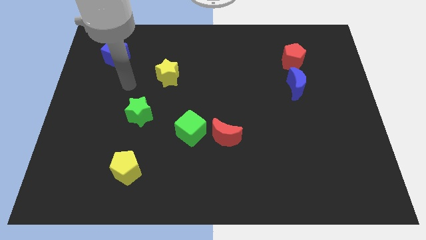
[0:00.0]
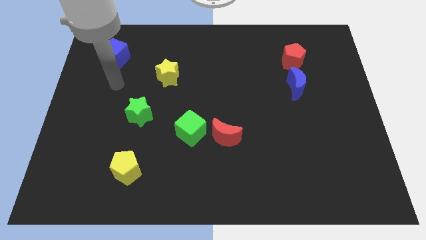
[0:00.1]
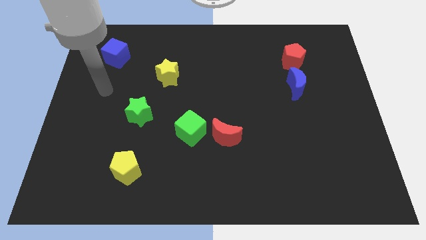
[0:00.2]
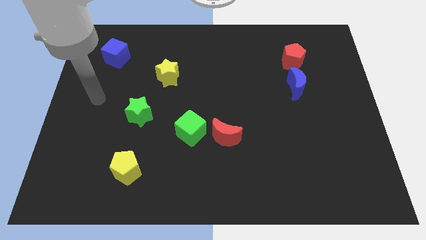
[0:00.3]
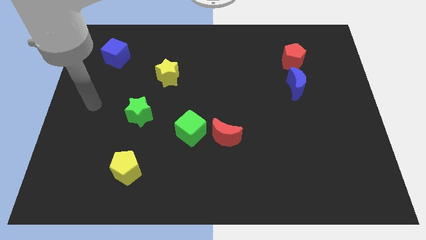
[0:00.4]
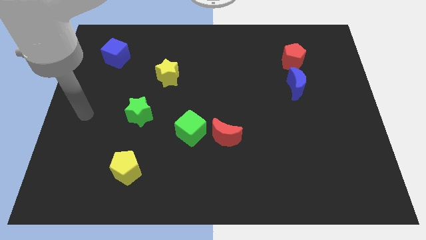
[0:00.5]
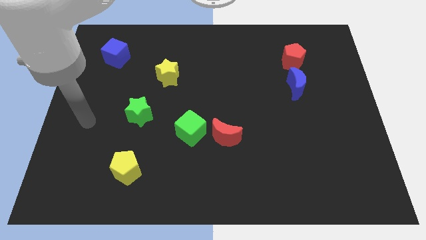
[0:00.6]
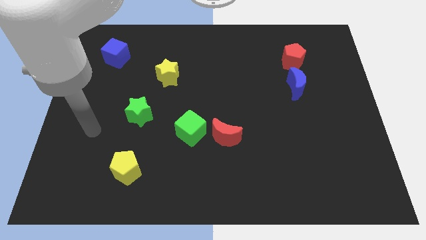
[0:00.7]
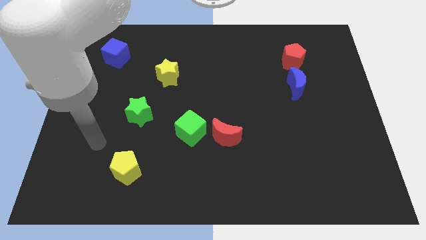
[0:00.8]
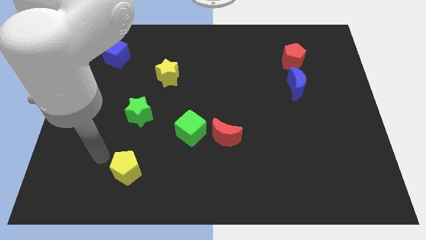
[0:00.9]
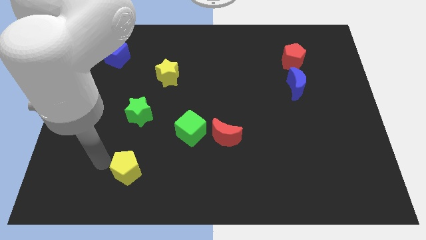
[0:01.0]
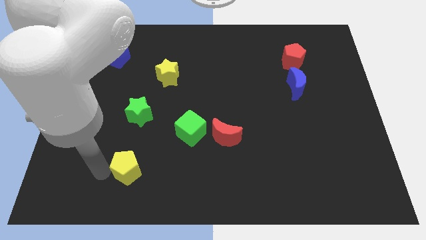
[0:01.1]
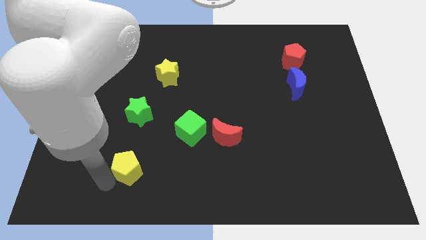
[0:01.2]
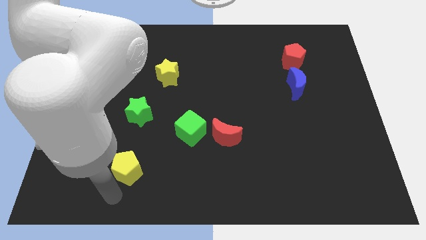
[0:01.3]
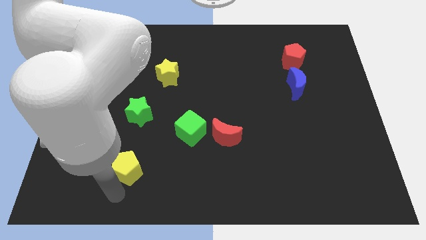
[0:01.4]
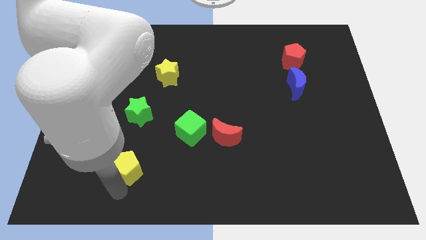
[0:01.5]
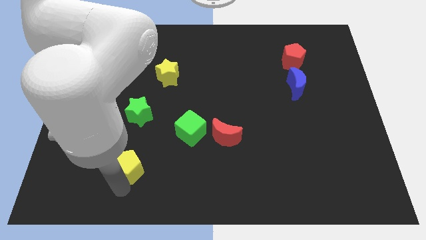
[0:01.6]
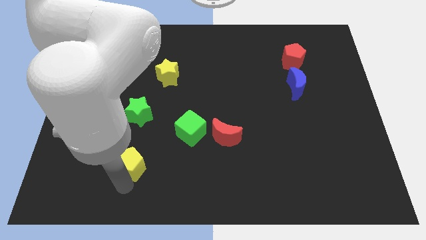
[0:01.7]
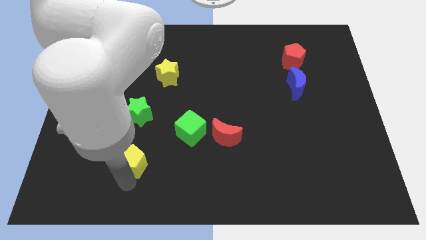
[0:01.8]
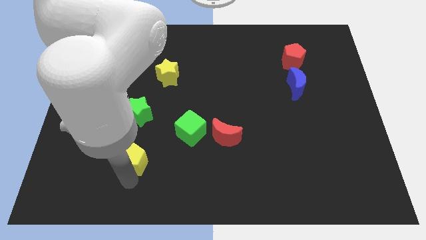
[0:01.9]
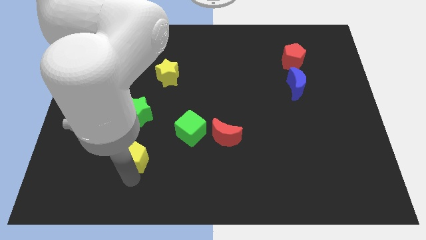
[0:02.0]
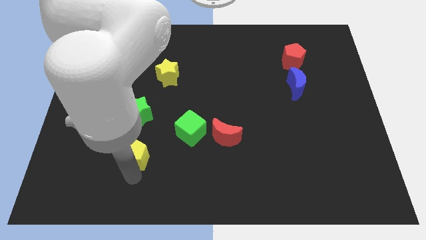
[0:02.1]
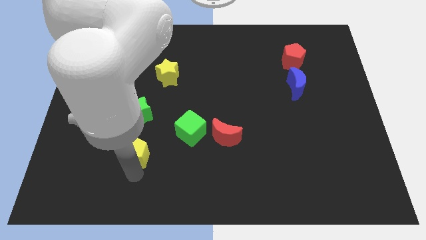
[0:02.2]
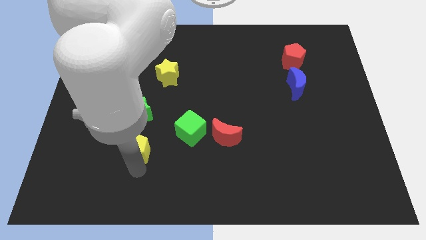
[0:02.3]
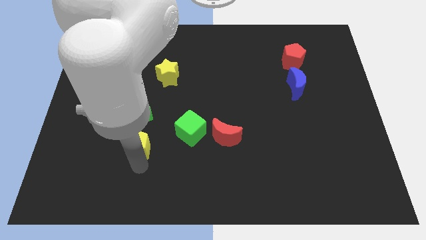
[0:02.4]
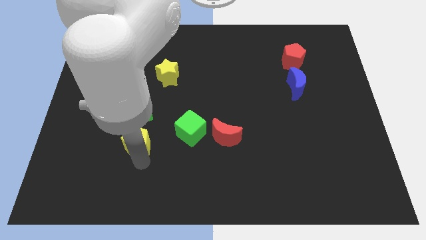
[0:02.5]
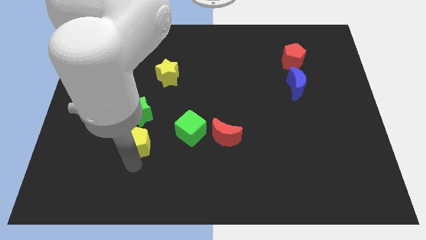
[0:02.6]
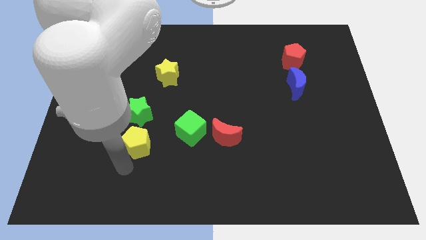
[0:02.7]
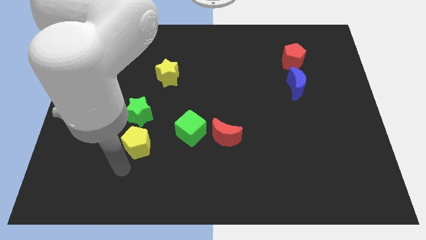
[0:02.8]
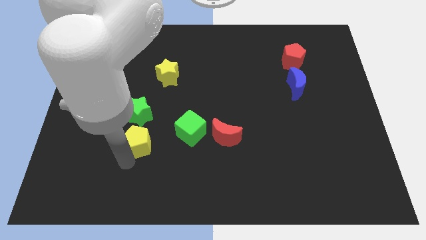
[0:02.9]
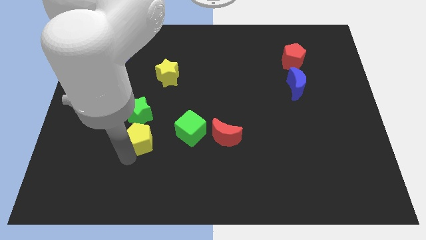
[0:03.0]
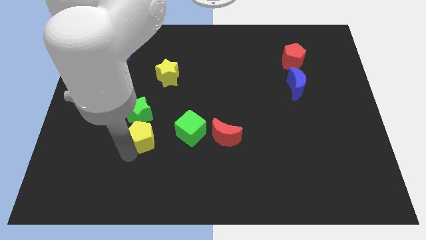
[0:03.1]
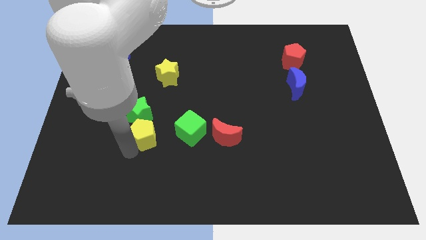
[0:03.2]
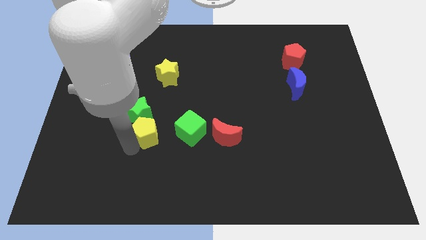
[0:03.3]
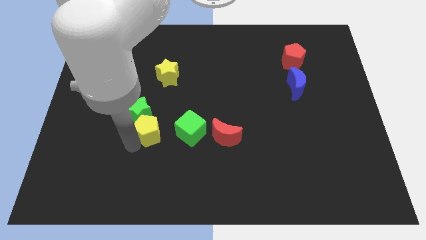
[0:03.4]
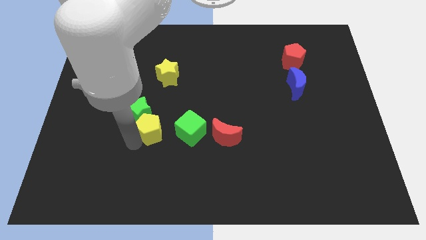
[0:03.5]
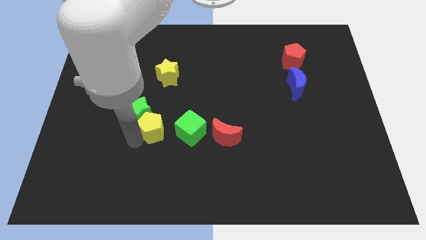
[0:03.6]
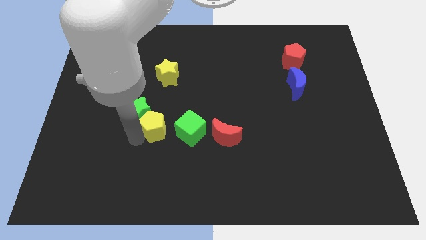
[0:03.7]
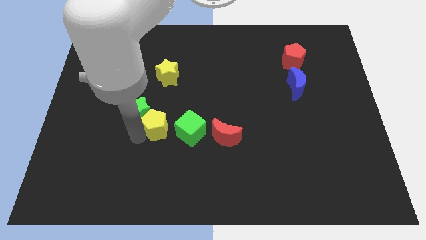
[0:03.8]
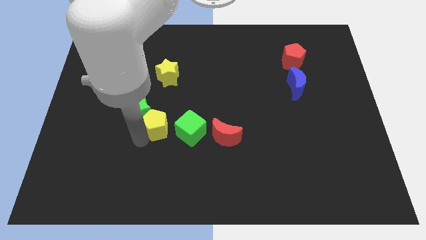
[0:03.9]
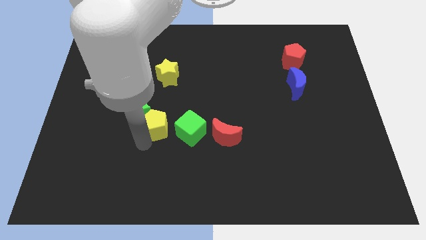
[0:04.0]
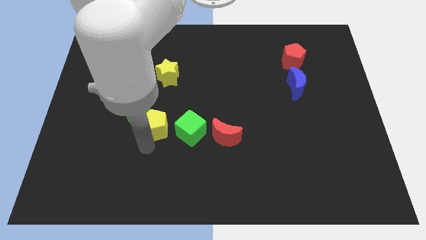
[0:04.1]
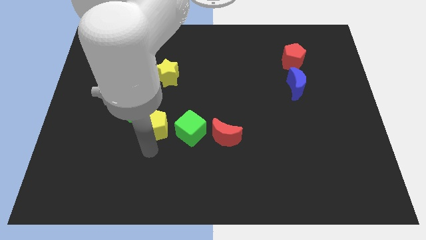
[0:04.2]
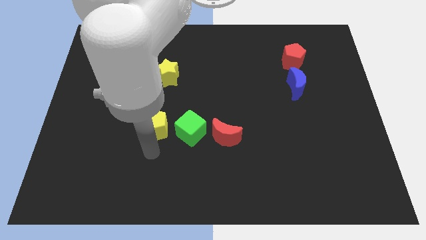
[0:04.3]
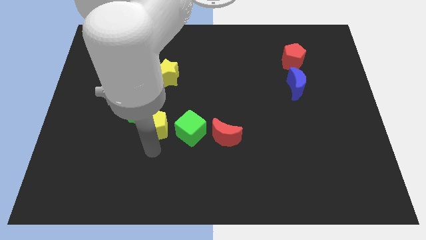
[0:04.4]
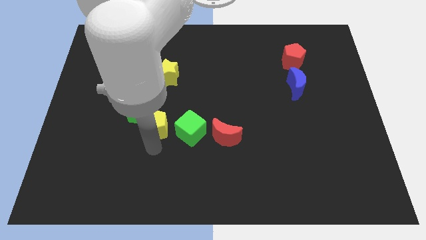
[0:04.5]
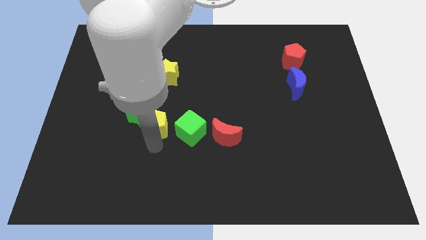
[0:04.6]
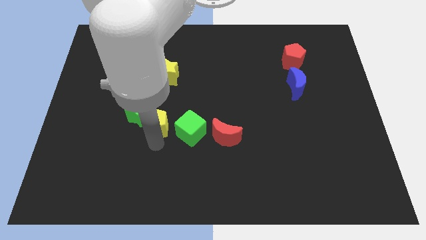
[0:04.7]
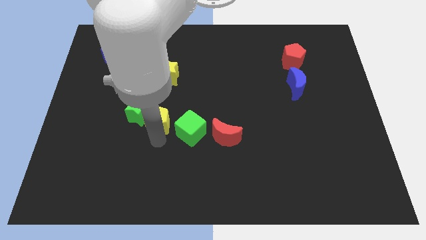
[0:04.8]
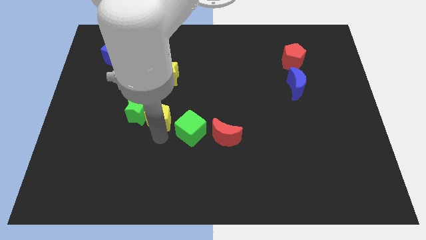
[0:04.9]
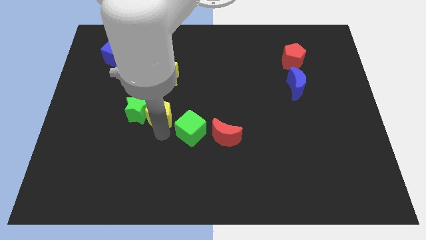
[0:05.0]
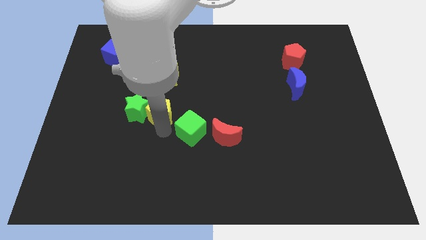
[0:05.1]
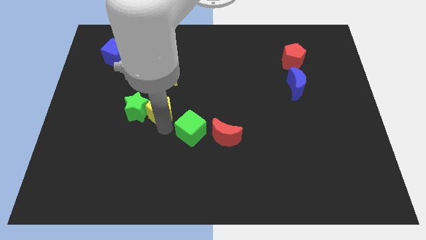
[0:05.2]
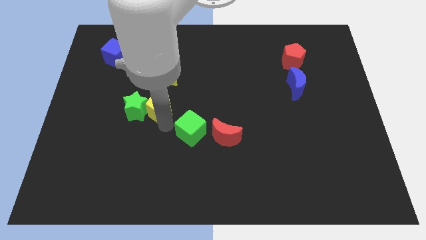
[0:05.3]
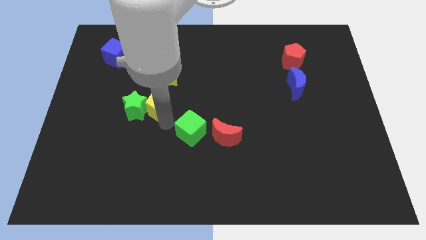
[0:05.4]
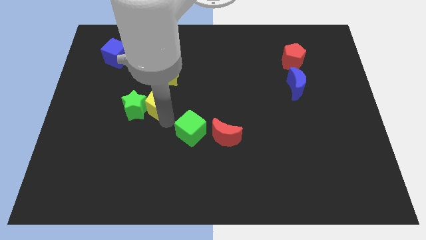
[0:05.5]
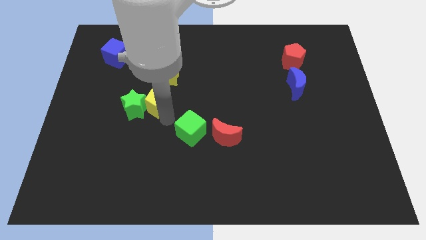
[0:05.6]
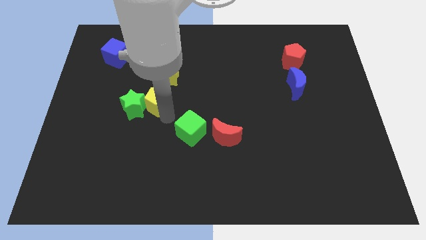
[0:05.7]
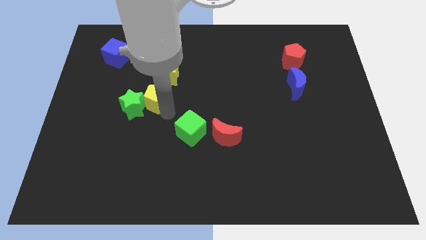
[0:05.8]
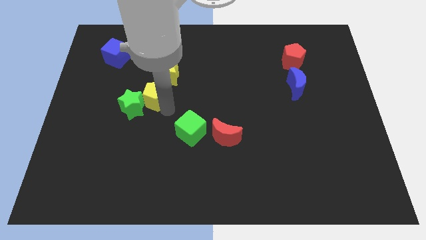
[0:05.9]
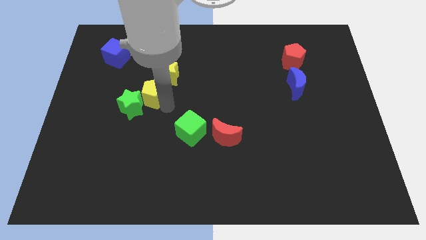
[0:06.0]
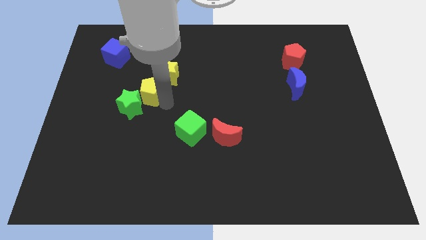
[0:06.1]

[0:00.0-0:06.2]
move the yellow pentagon up

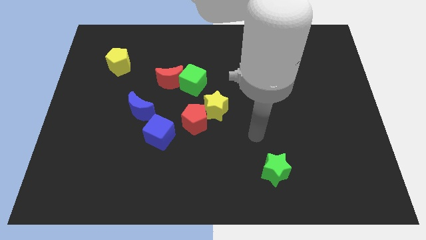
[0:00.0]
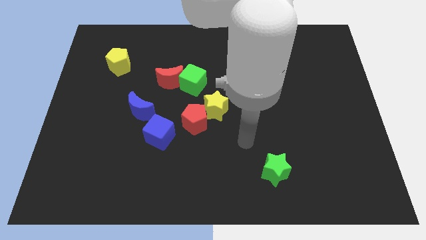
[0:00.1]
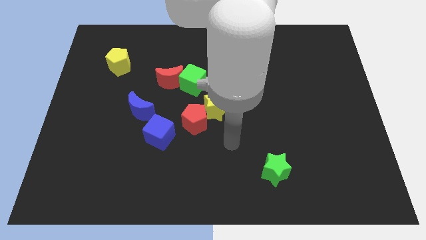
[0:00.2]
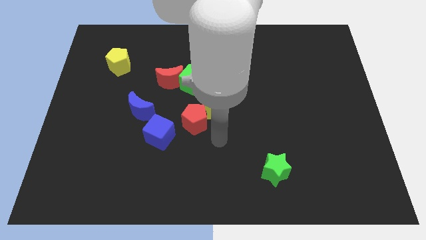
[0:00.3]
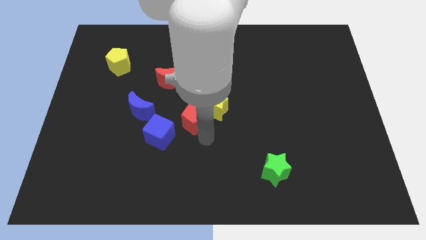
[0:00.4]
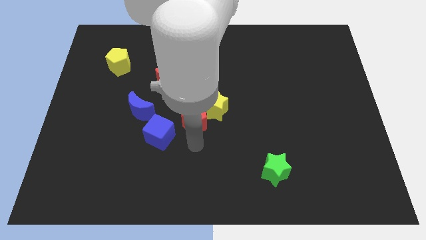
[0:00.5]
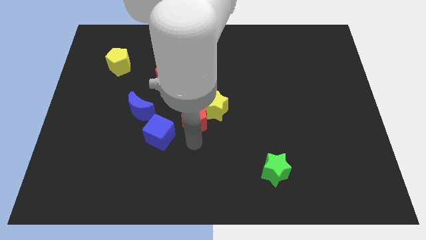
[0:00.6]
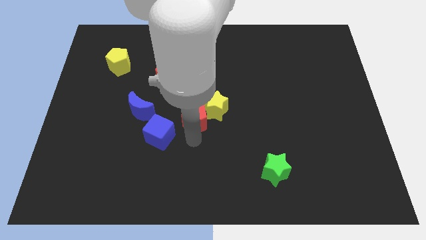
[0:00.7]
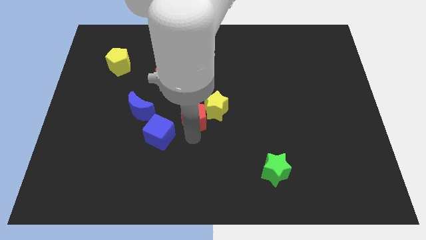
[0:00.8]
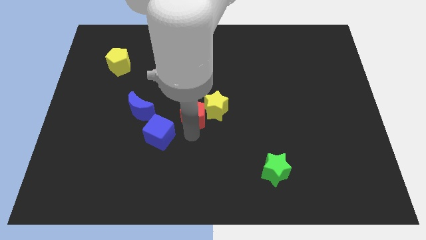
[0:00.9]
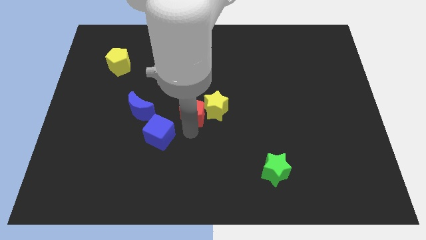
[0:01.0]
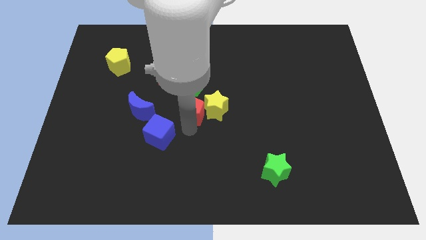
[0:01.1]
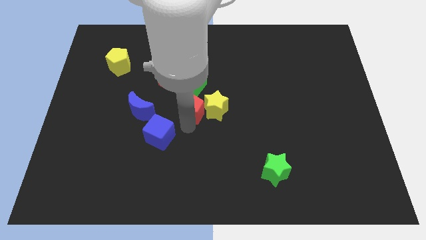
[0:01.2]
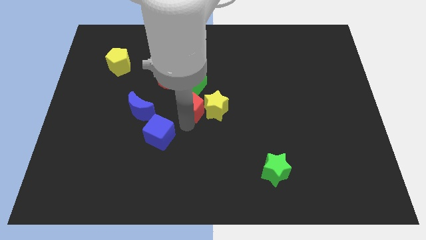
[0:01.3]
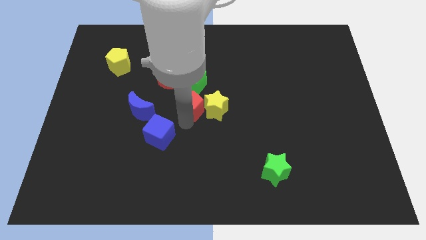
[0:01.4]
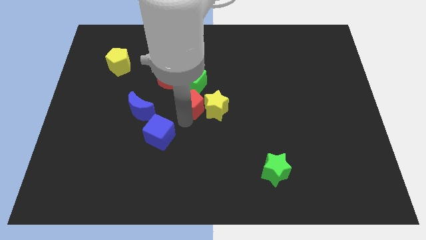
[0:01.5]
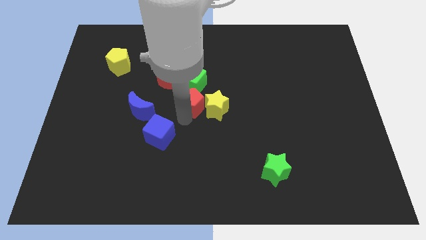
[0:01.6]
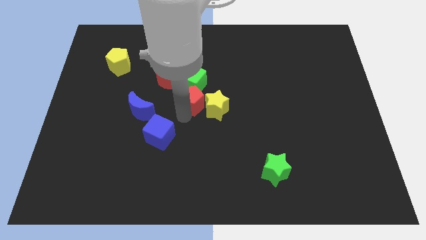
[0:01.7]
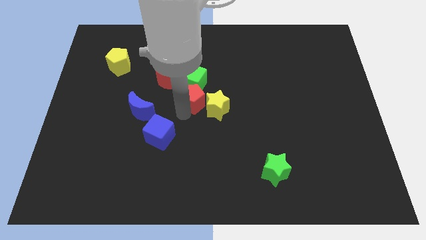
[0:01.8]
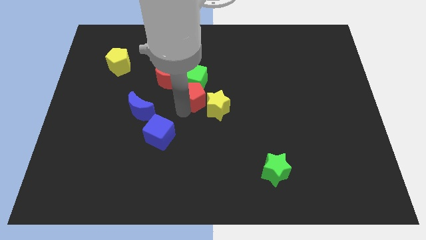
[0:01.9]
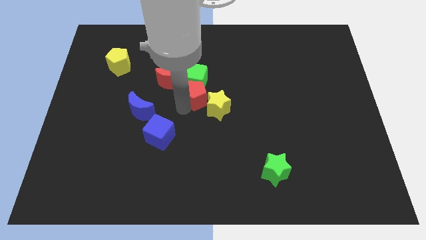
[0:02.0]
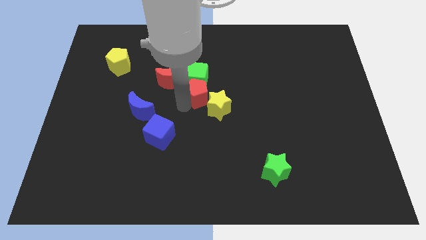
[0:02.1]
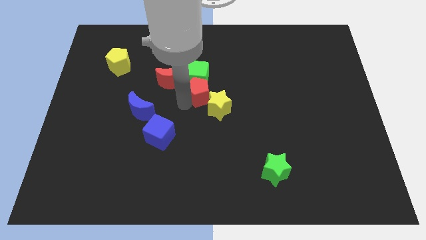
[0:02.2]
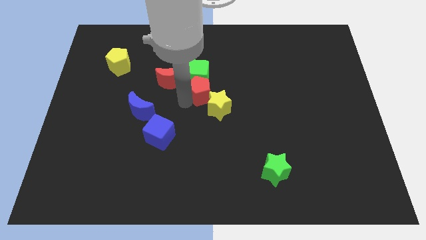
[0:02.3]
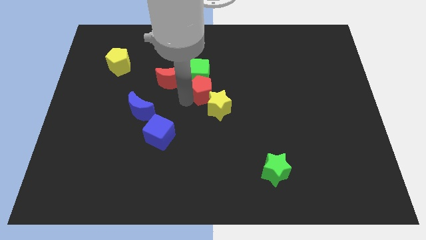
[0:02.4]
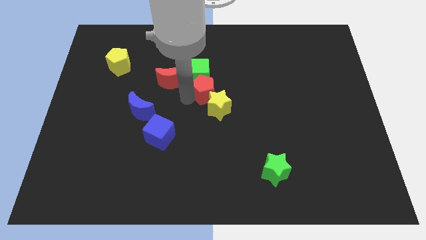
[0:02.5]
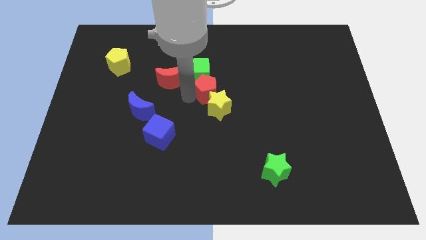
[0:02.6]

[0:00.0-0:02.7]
move the red pentagon a bit diagonally upwards and to the right
